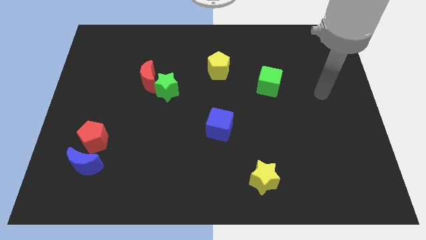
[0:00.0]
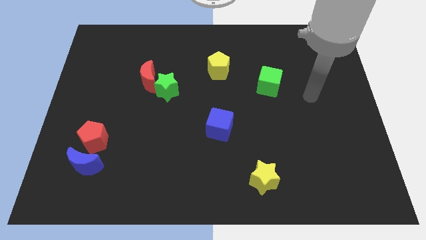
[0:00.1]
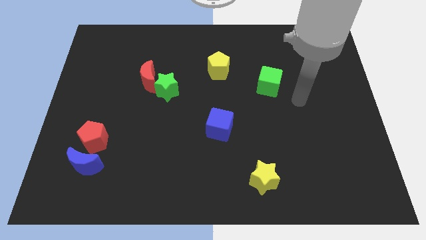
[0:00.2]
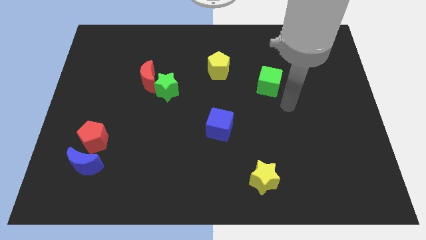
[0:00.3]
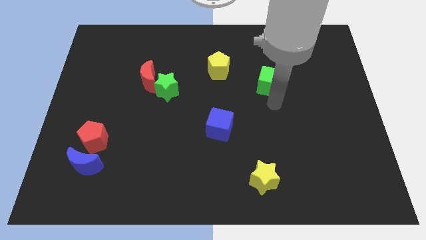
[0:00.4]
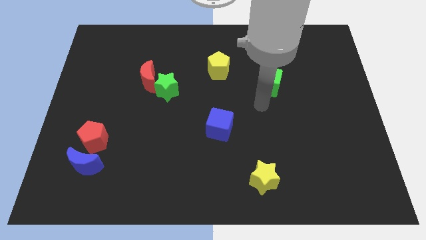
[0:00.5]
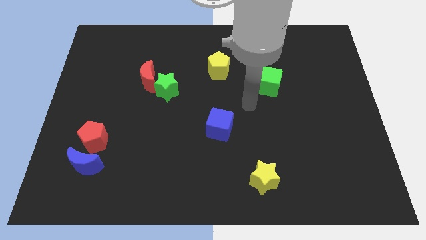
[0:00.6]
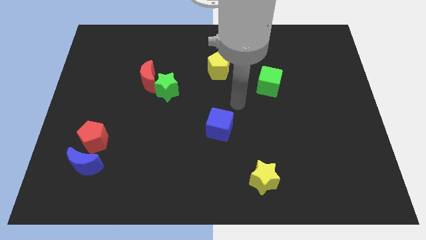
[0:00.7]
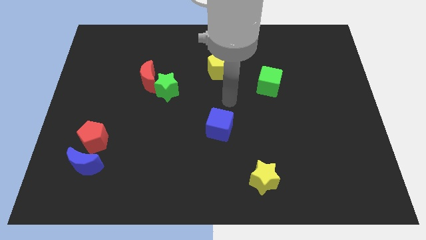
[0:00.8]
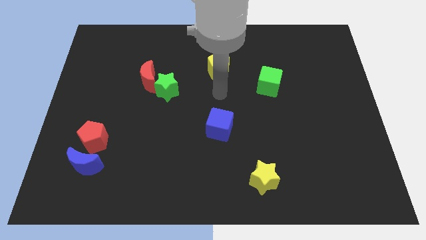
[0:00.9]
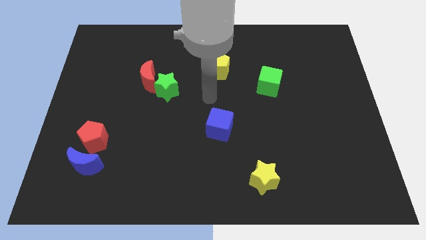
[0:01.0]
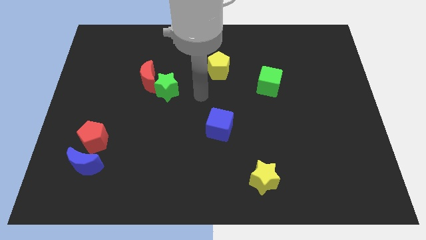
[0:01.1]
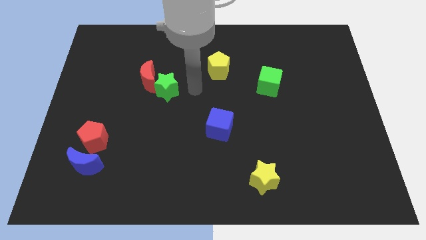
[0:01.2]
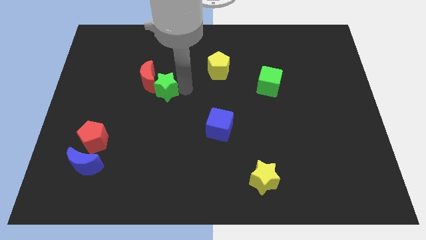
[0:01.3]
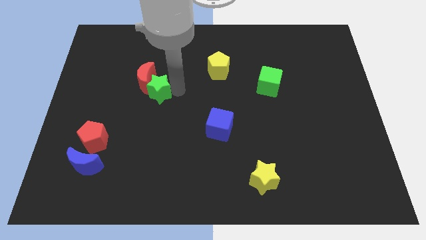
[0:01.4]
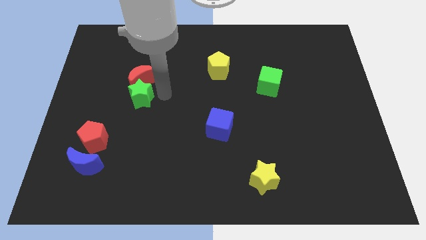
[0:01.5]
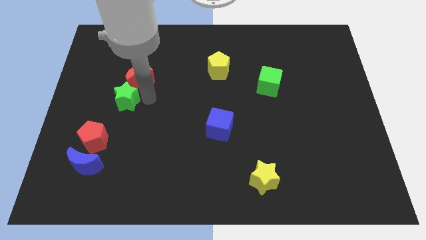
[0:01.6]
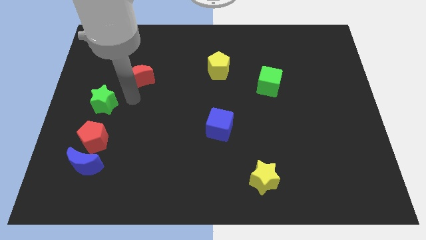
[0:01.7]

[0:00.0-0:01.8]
pull the red moon apart from the green star

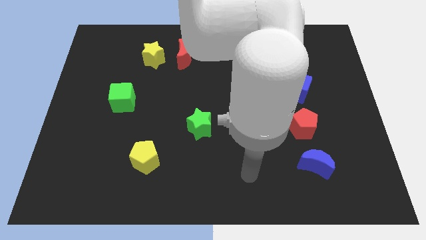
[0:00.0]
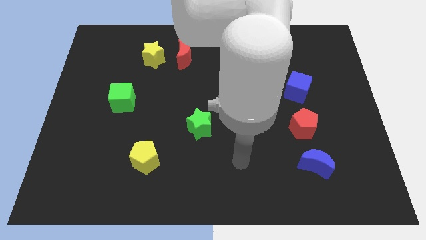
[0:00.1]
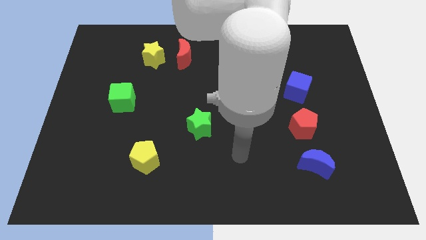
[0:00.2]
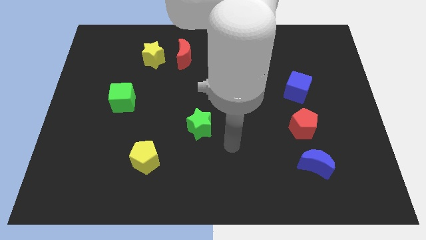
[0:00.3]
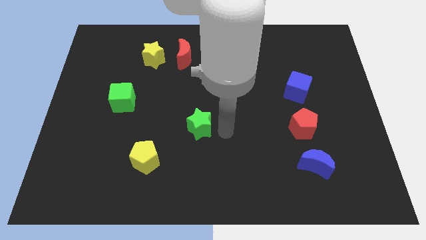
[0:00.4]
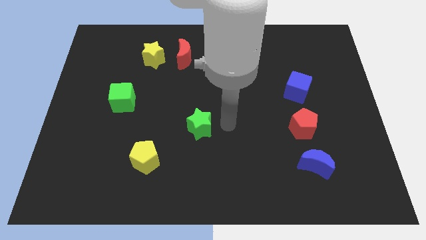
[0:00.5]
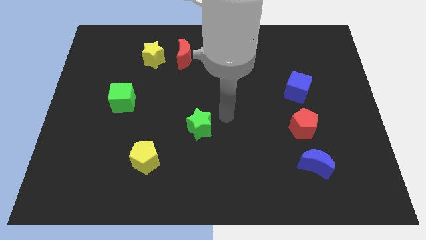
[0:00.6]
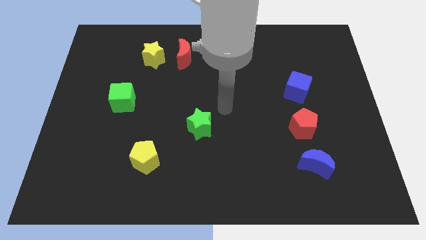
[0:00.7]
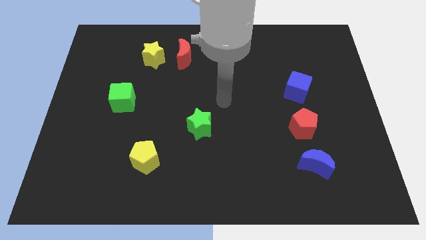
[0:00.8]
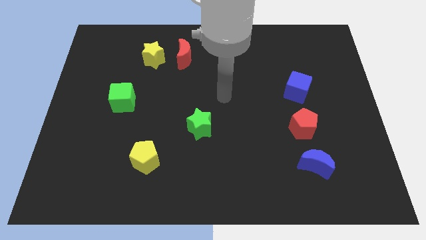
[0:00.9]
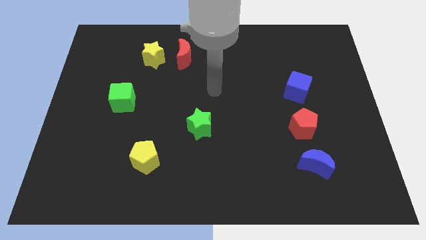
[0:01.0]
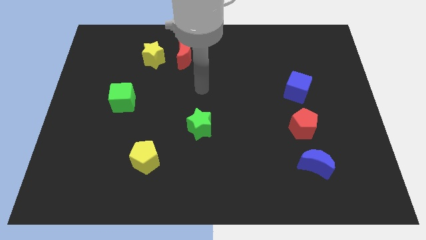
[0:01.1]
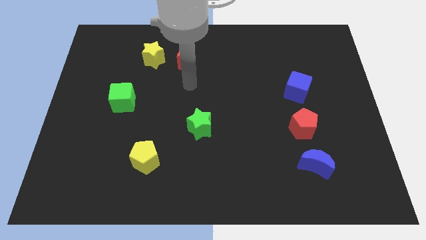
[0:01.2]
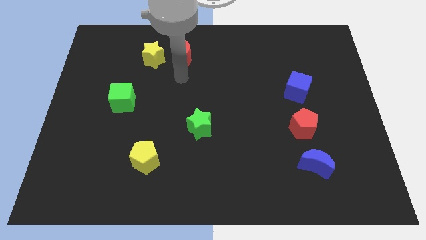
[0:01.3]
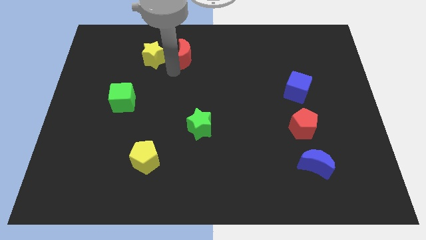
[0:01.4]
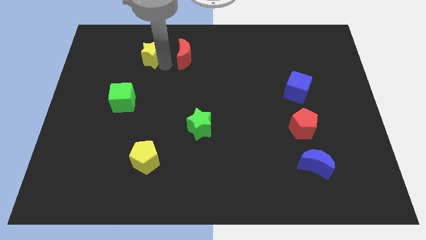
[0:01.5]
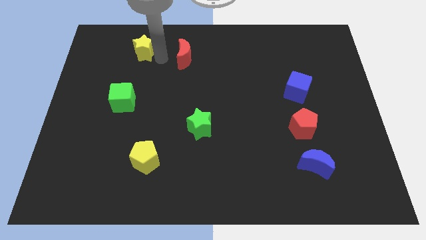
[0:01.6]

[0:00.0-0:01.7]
move the red moon away from the yellow star

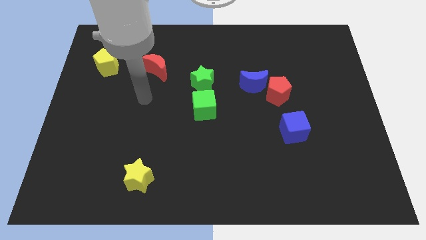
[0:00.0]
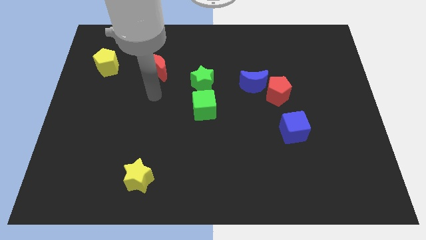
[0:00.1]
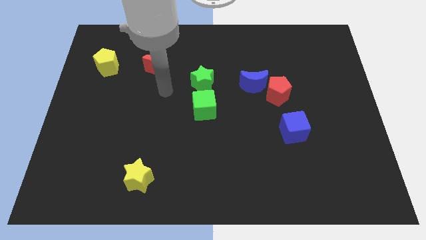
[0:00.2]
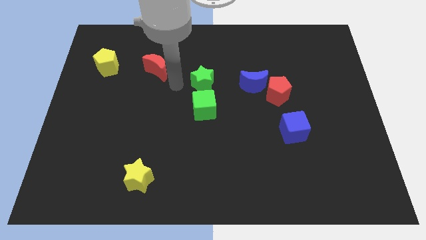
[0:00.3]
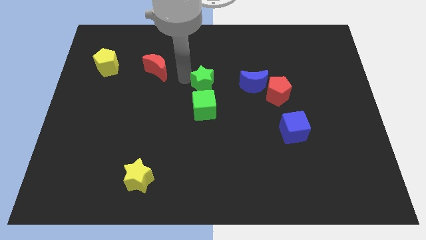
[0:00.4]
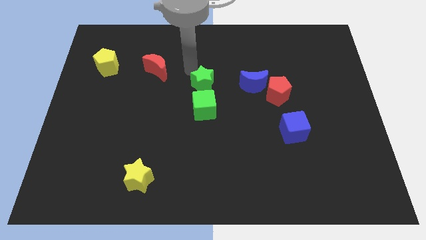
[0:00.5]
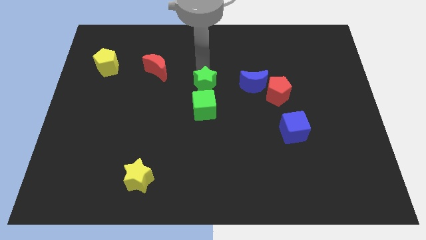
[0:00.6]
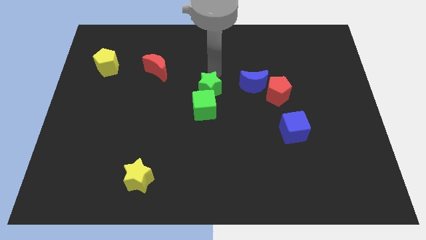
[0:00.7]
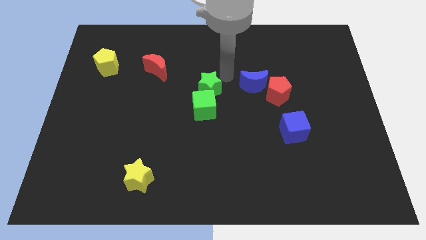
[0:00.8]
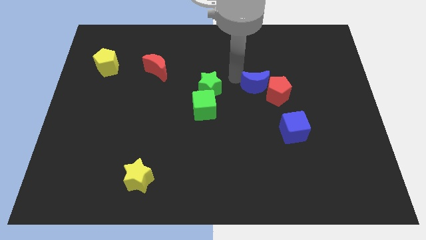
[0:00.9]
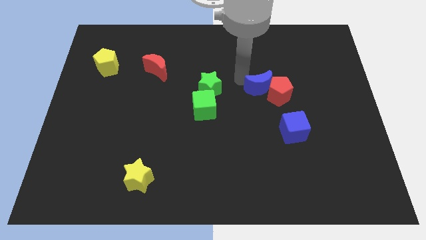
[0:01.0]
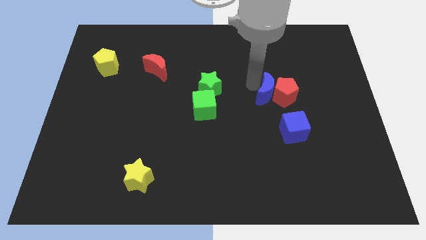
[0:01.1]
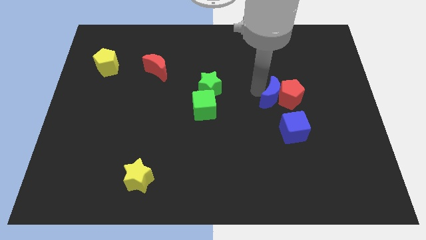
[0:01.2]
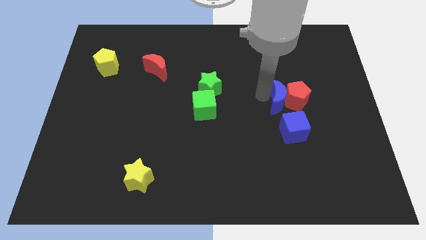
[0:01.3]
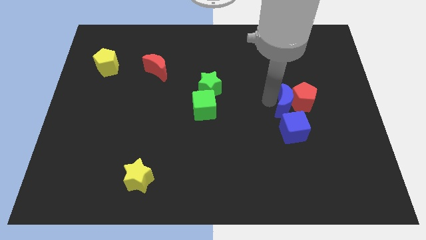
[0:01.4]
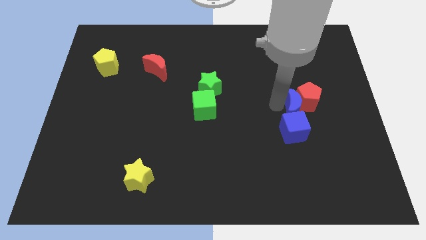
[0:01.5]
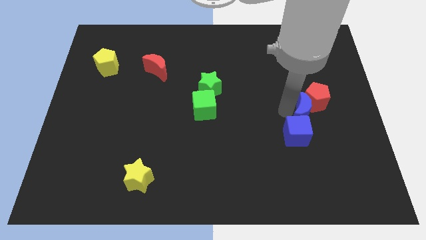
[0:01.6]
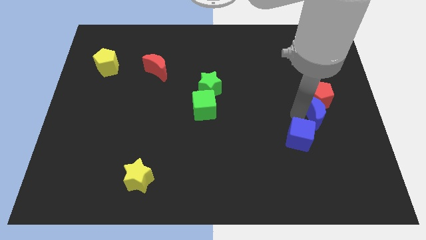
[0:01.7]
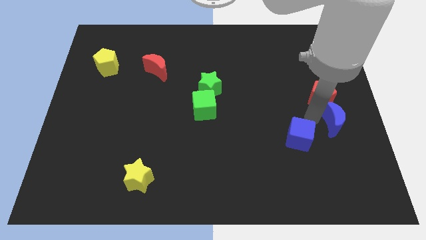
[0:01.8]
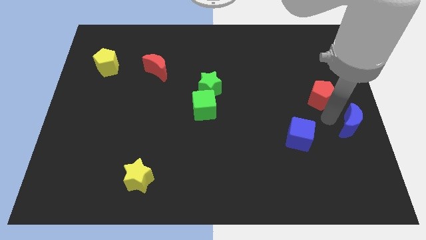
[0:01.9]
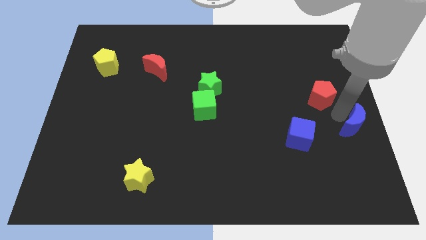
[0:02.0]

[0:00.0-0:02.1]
separate the red pentagon from the blue moon

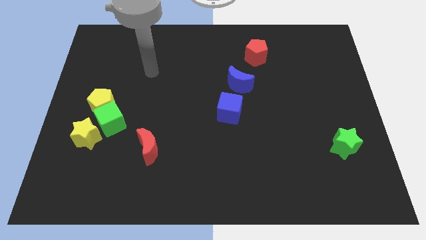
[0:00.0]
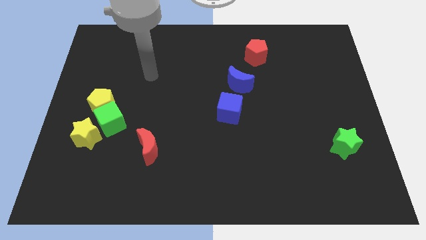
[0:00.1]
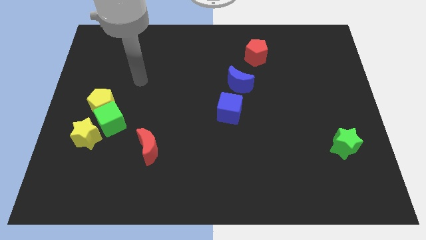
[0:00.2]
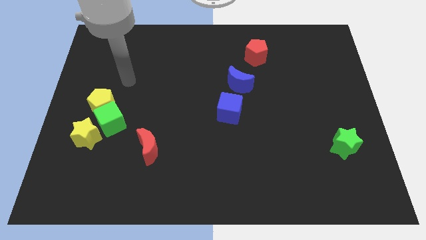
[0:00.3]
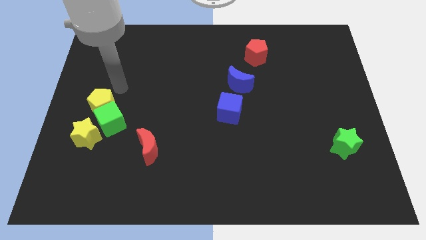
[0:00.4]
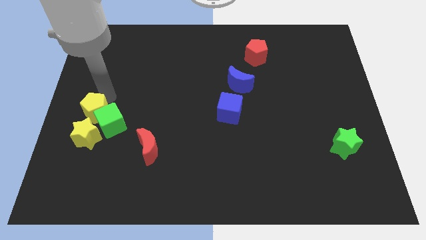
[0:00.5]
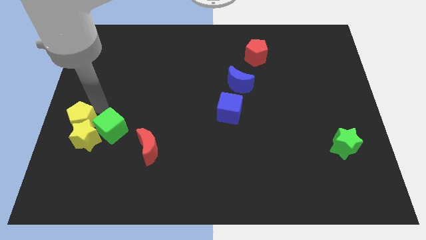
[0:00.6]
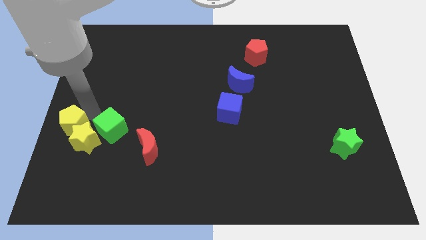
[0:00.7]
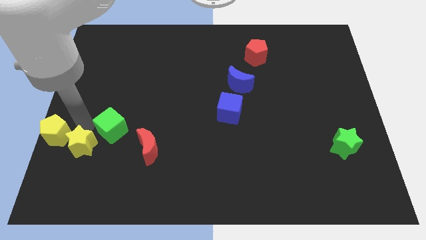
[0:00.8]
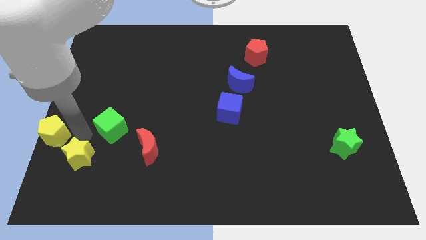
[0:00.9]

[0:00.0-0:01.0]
pull the green cube apart from the yellow pentagon and yellow star

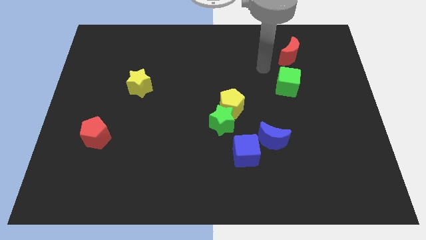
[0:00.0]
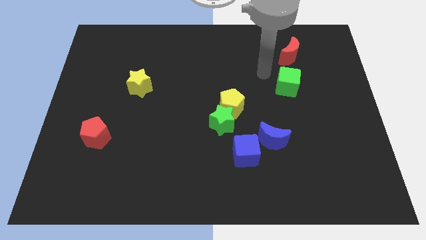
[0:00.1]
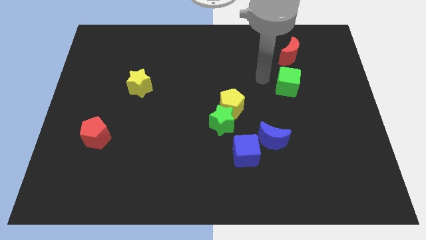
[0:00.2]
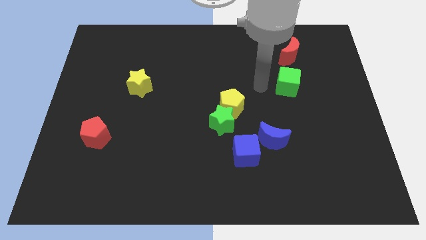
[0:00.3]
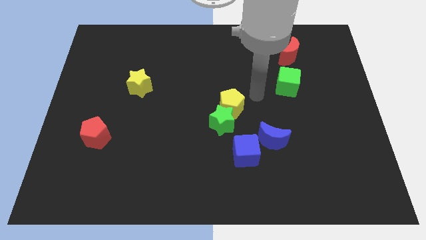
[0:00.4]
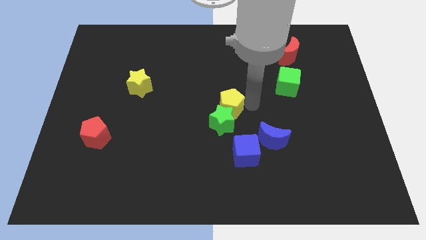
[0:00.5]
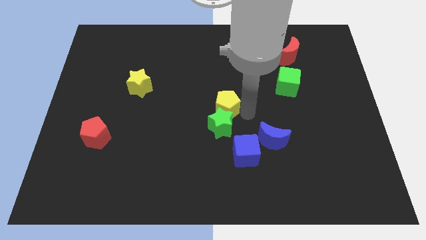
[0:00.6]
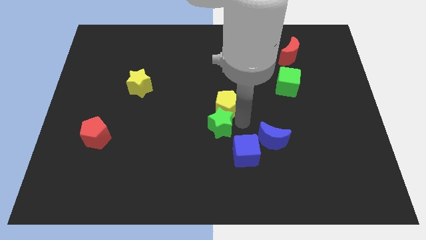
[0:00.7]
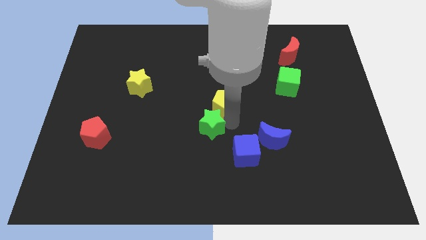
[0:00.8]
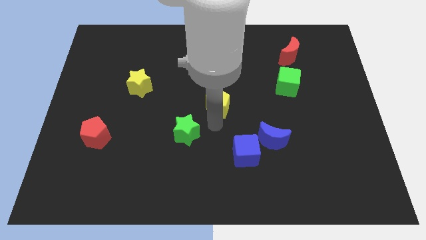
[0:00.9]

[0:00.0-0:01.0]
pull the yellow pentagon apart from the green star

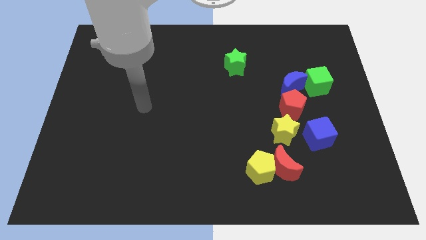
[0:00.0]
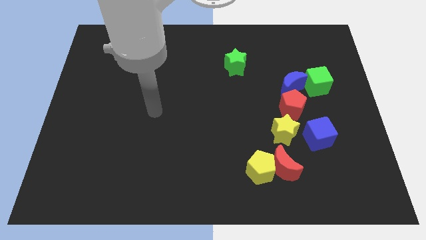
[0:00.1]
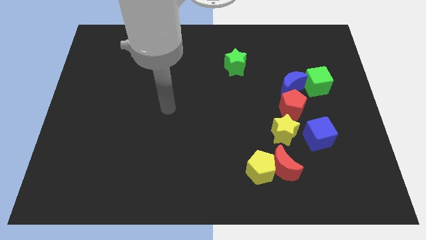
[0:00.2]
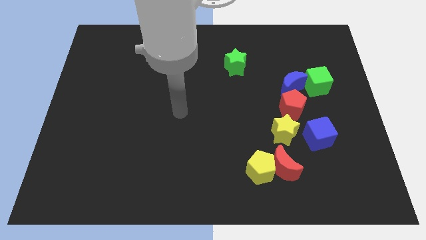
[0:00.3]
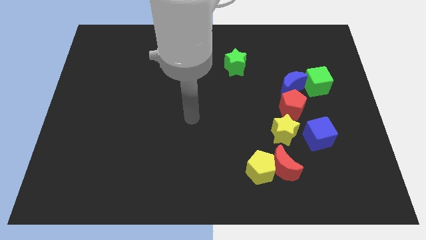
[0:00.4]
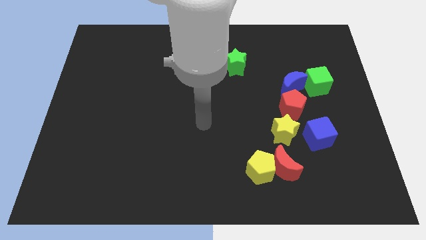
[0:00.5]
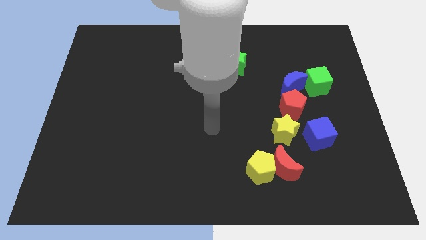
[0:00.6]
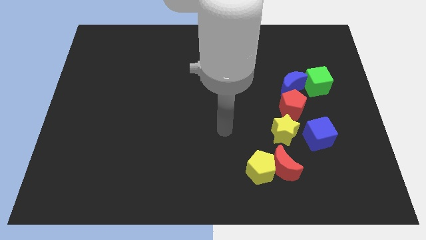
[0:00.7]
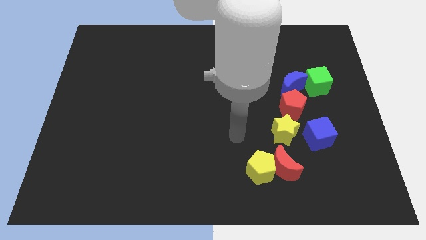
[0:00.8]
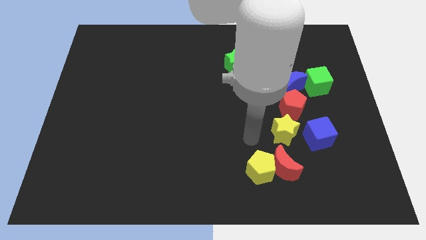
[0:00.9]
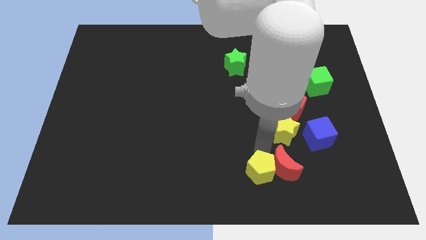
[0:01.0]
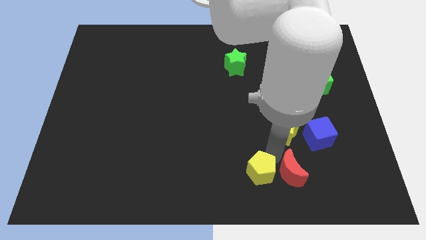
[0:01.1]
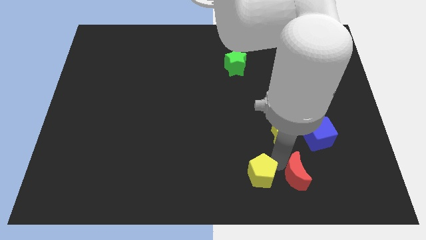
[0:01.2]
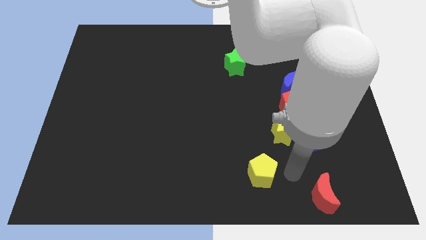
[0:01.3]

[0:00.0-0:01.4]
move the yellow pentagon away from the red moon

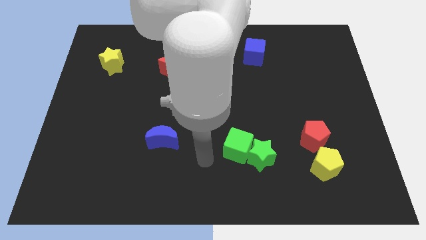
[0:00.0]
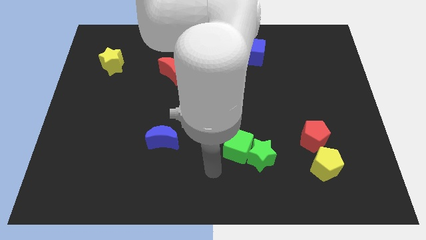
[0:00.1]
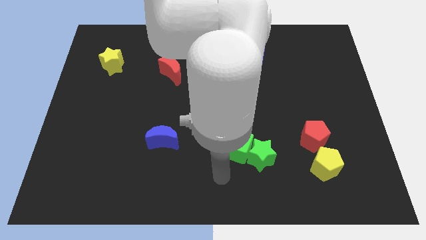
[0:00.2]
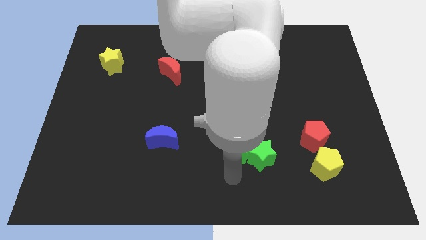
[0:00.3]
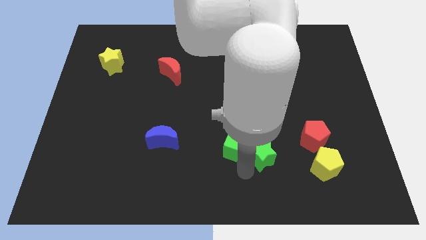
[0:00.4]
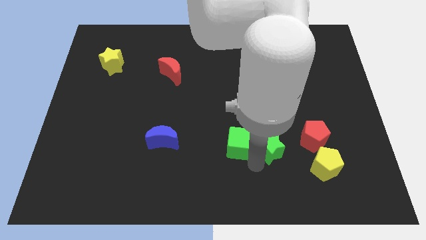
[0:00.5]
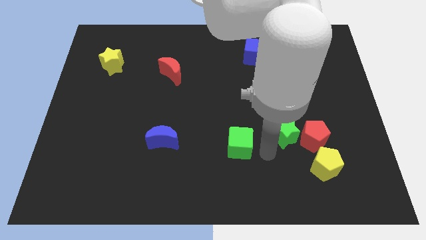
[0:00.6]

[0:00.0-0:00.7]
separate the green cube from the green star
